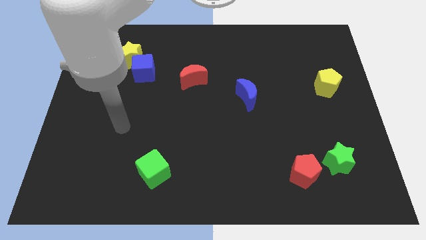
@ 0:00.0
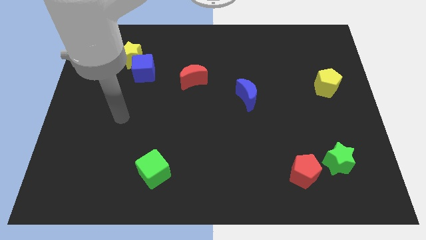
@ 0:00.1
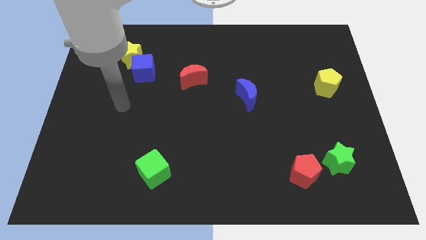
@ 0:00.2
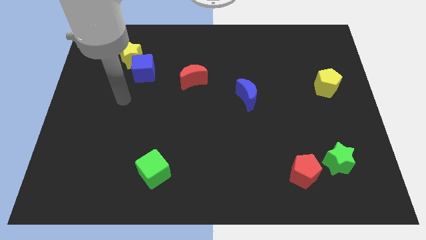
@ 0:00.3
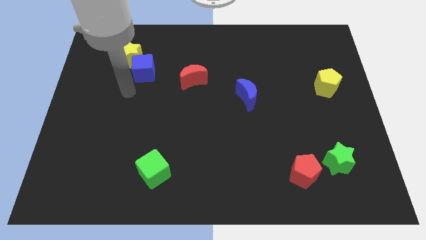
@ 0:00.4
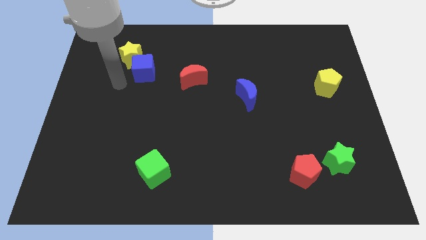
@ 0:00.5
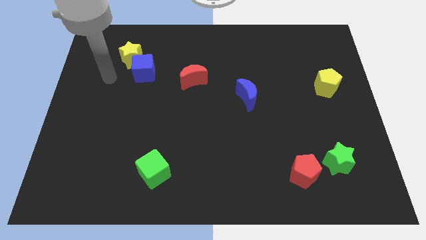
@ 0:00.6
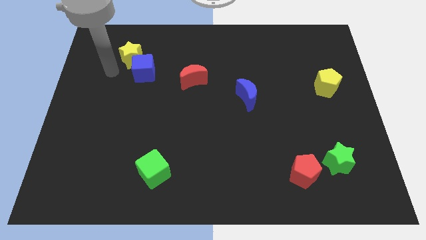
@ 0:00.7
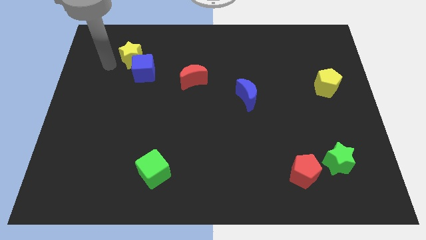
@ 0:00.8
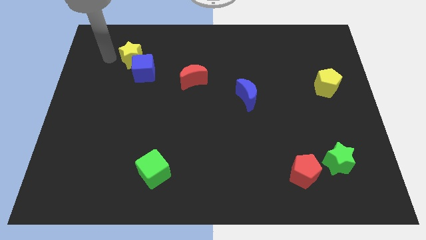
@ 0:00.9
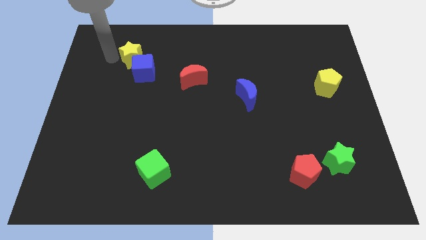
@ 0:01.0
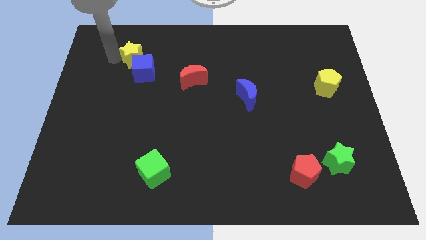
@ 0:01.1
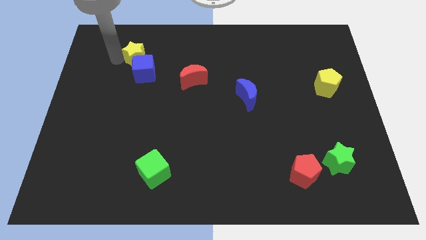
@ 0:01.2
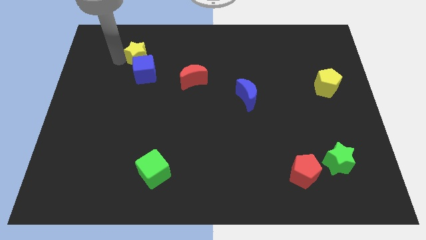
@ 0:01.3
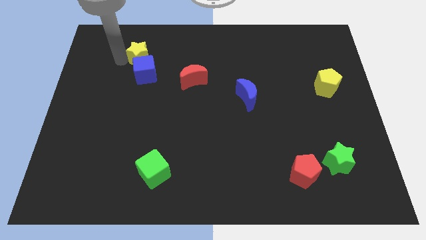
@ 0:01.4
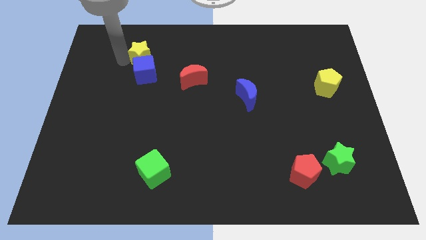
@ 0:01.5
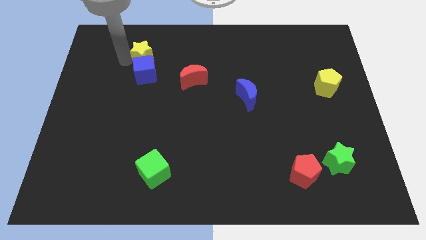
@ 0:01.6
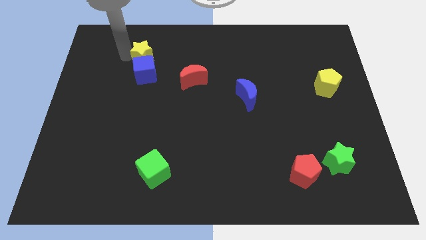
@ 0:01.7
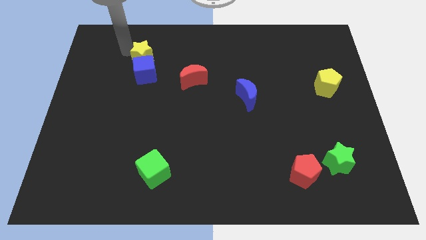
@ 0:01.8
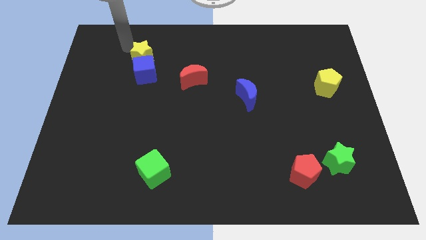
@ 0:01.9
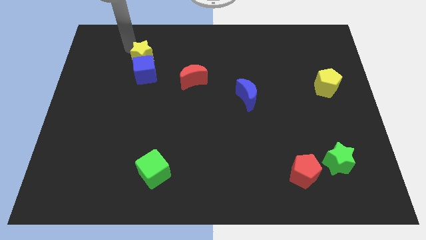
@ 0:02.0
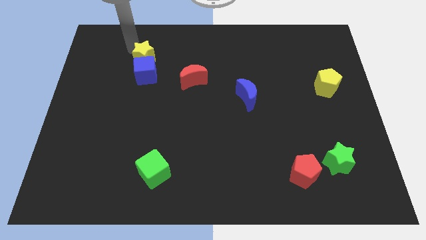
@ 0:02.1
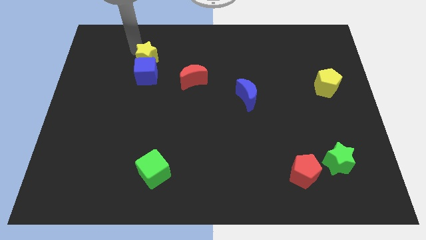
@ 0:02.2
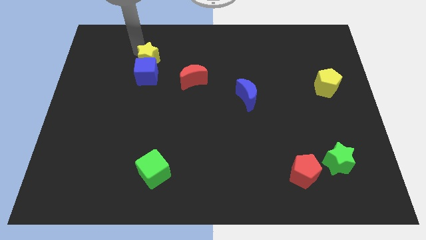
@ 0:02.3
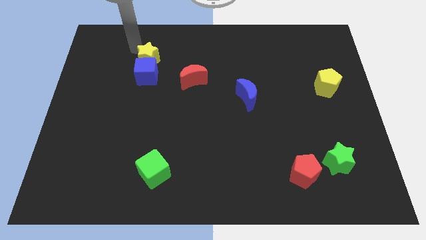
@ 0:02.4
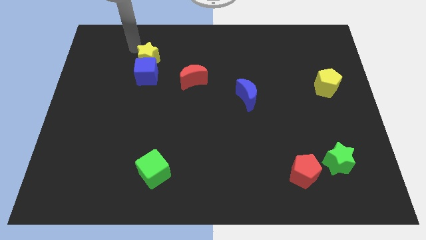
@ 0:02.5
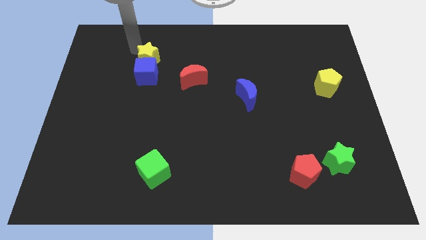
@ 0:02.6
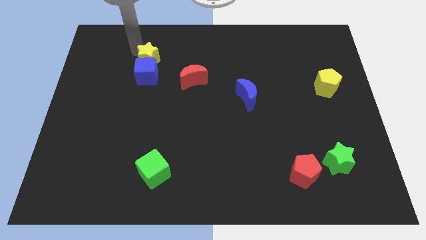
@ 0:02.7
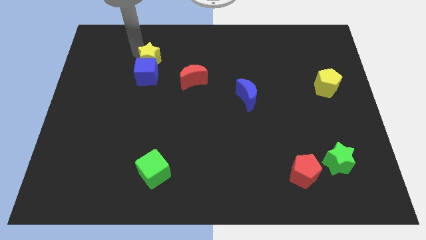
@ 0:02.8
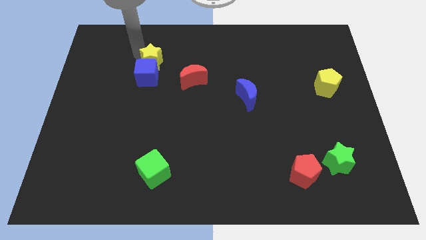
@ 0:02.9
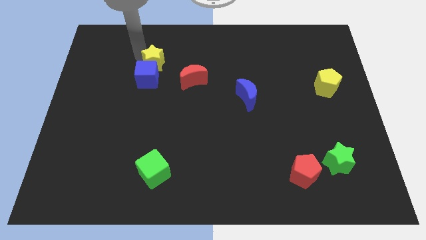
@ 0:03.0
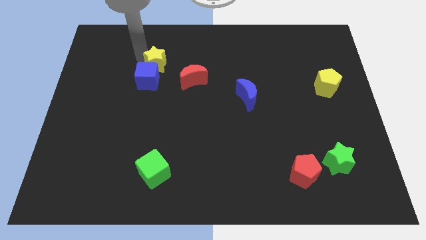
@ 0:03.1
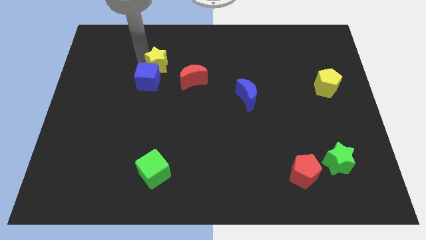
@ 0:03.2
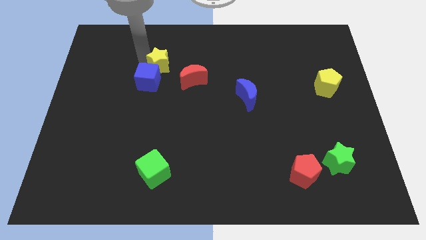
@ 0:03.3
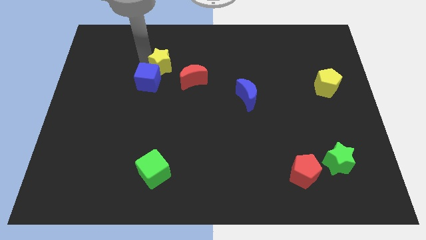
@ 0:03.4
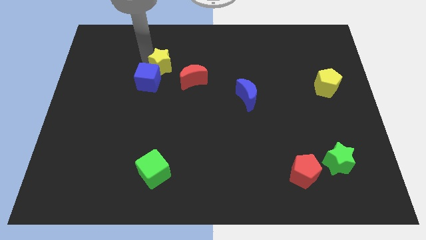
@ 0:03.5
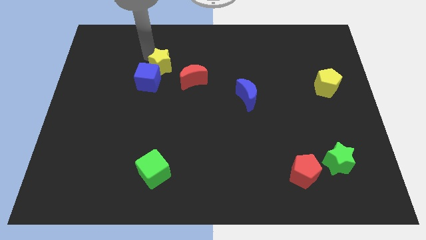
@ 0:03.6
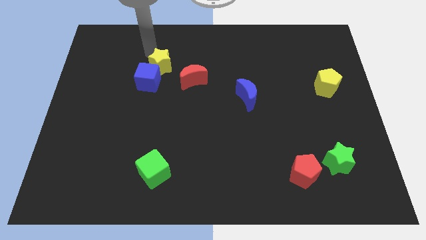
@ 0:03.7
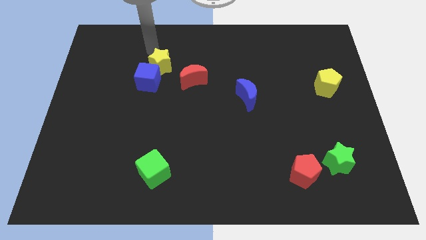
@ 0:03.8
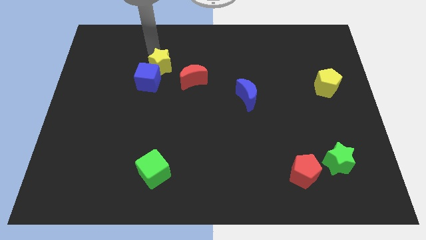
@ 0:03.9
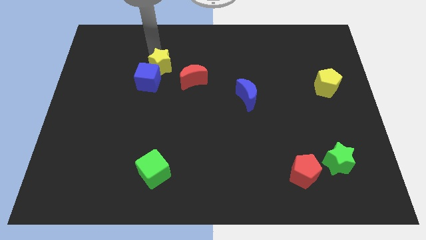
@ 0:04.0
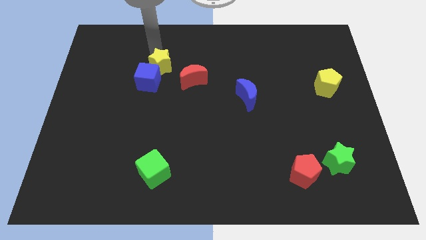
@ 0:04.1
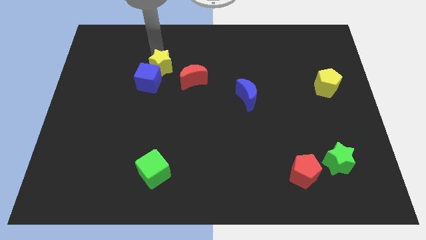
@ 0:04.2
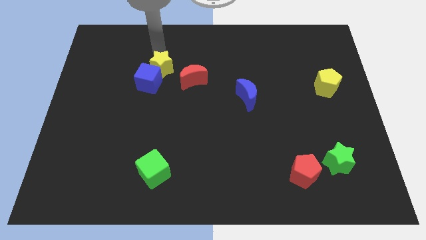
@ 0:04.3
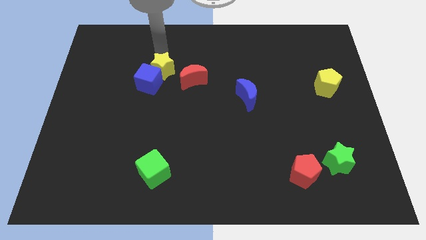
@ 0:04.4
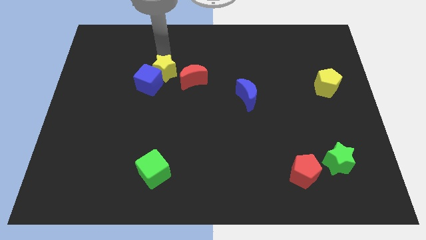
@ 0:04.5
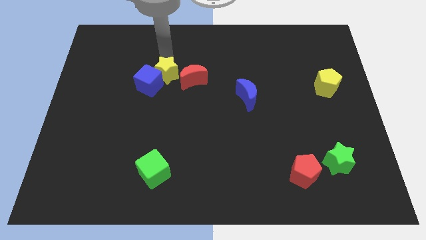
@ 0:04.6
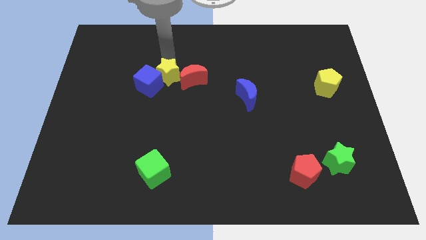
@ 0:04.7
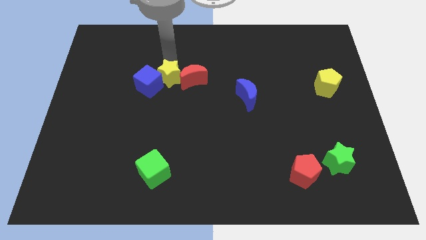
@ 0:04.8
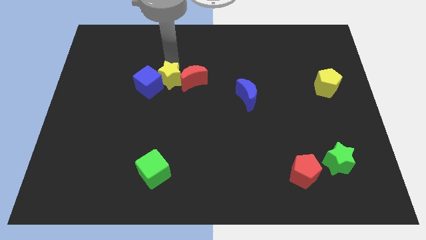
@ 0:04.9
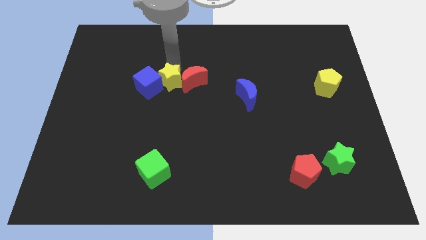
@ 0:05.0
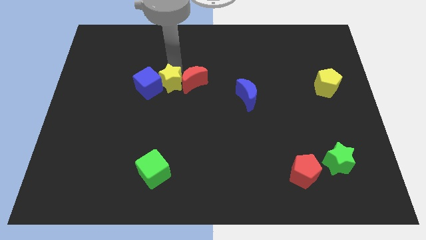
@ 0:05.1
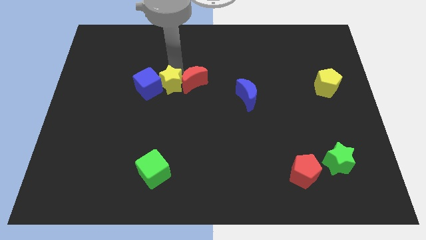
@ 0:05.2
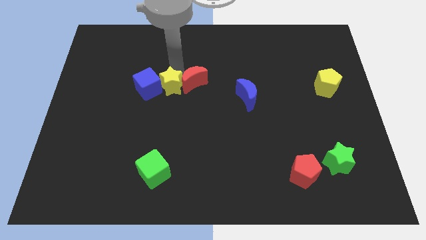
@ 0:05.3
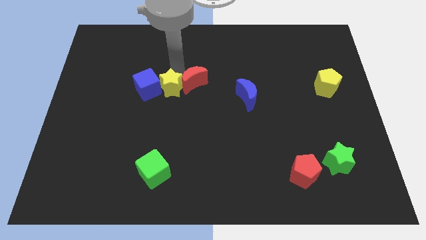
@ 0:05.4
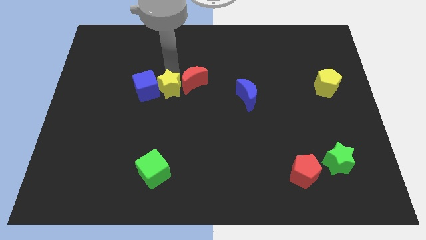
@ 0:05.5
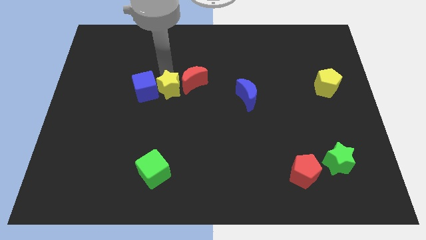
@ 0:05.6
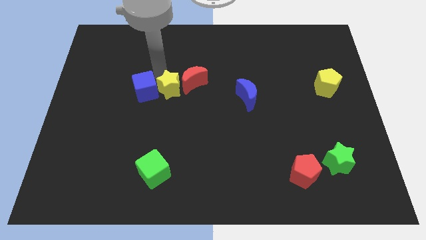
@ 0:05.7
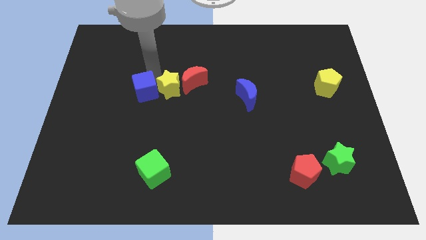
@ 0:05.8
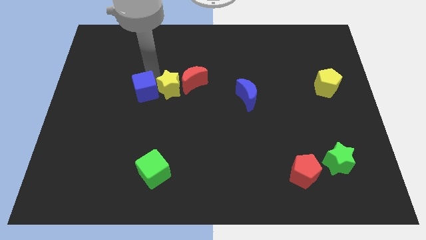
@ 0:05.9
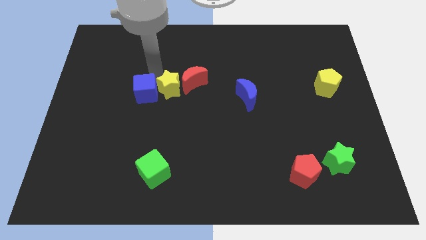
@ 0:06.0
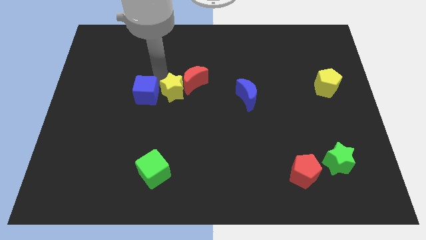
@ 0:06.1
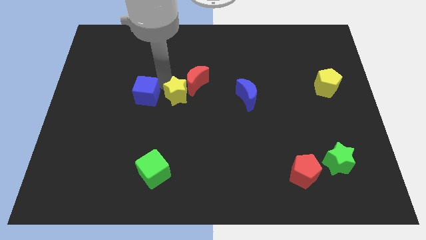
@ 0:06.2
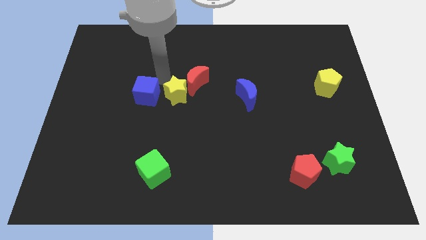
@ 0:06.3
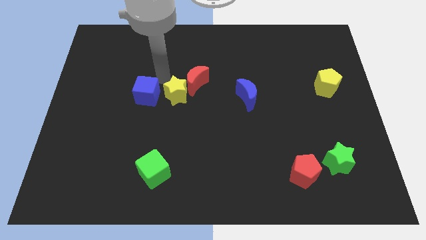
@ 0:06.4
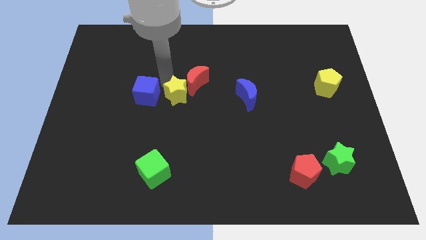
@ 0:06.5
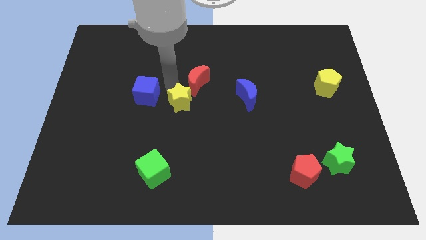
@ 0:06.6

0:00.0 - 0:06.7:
move the yellow star down and to the right

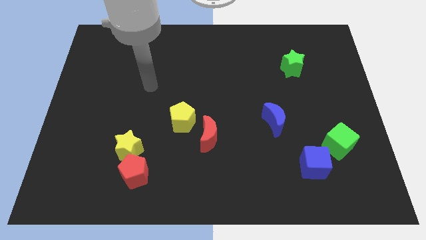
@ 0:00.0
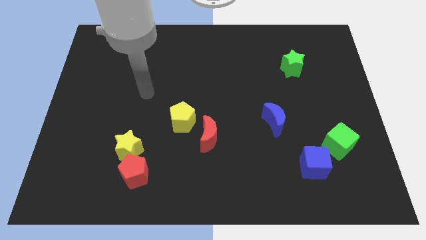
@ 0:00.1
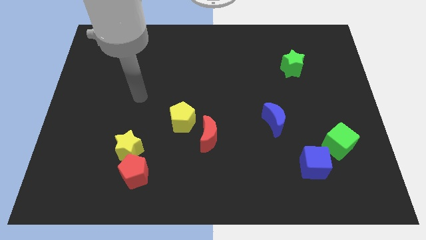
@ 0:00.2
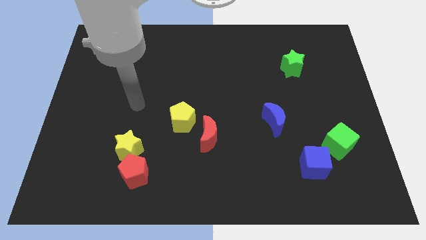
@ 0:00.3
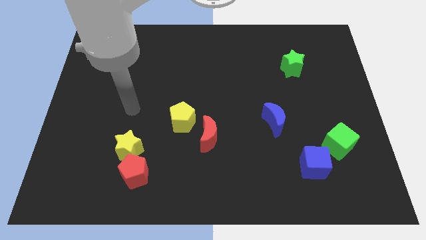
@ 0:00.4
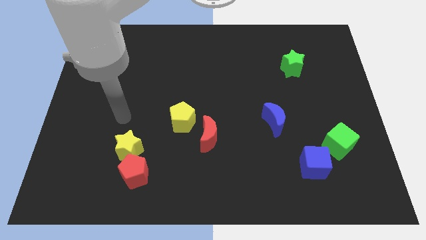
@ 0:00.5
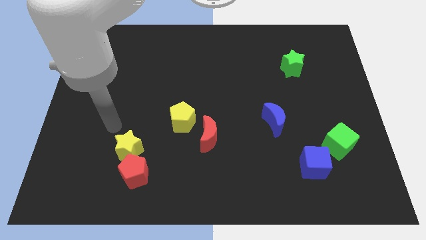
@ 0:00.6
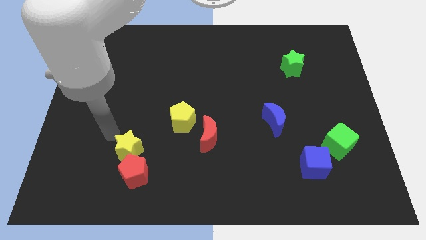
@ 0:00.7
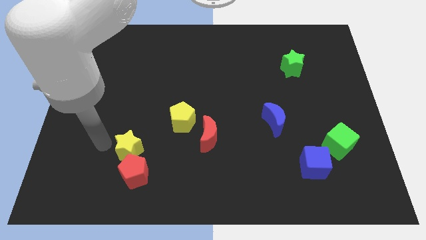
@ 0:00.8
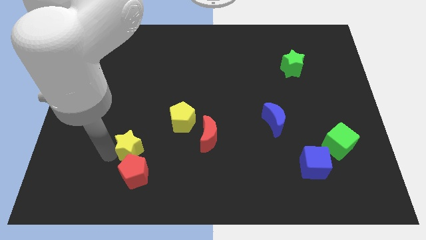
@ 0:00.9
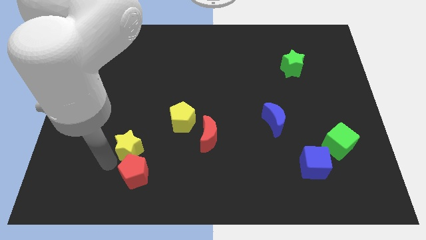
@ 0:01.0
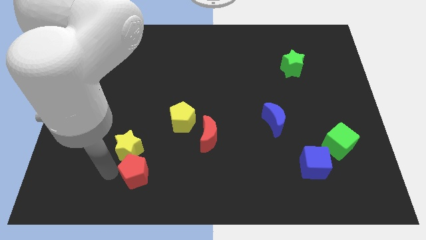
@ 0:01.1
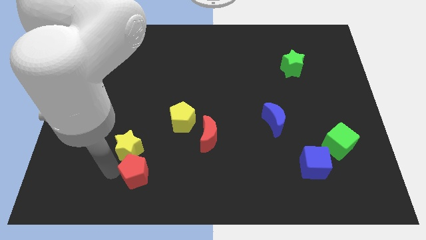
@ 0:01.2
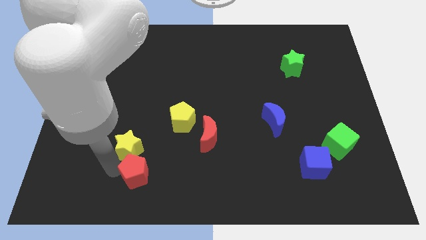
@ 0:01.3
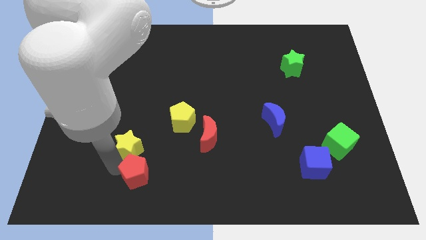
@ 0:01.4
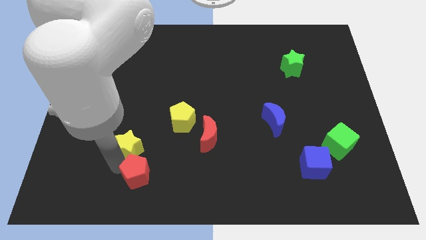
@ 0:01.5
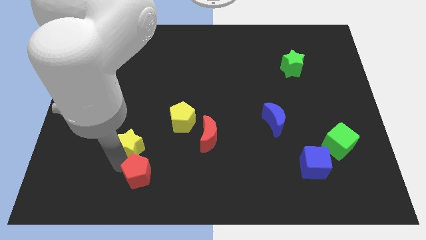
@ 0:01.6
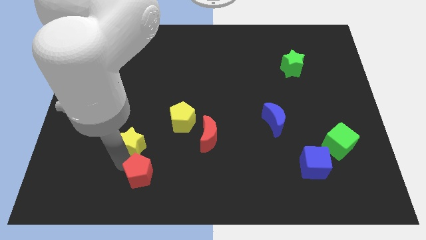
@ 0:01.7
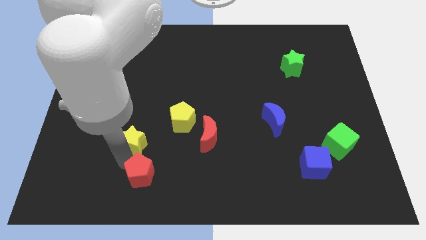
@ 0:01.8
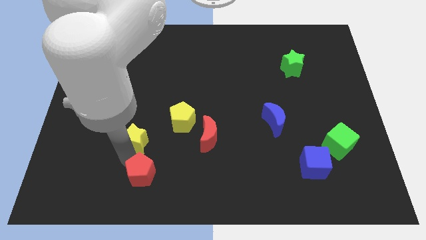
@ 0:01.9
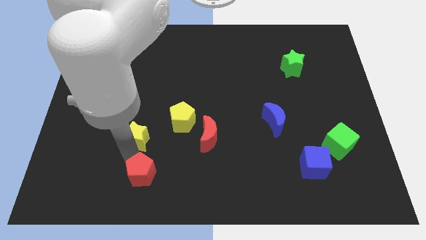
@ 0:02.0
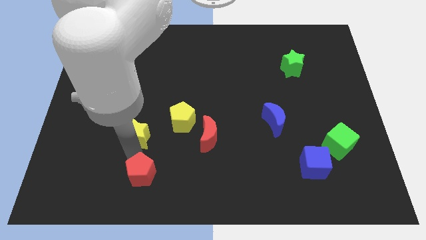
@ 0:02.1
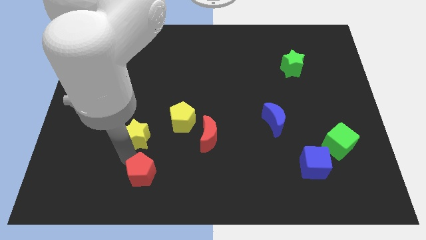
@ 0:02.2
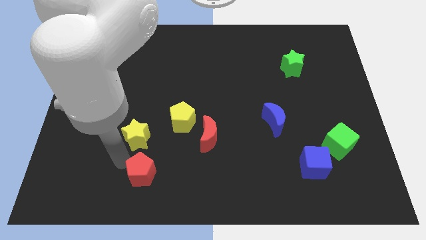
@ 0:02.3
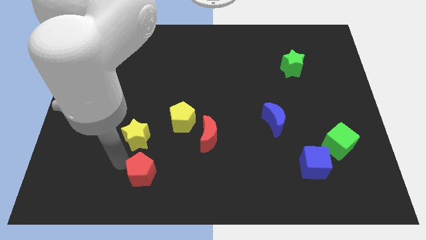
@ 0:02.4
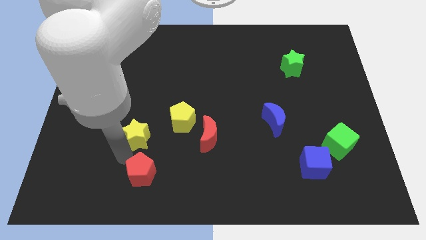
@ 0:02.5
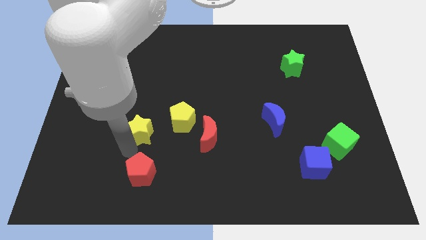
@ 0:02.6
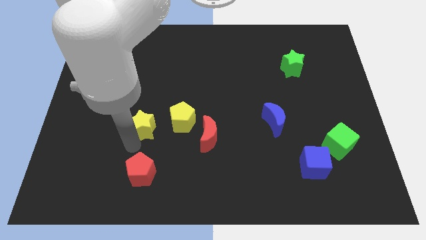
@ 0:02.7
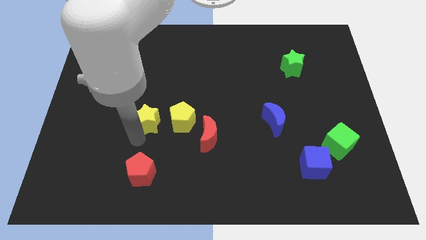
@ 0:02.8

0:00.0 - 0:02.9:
move the yellow star upwards and to the right somewhat
